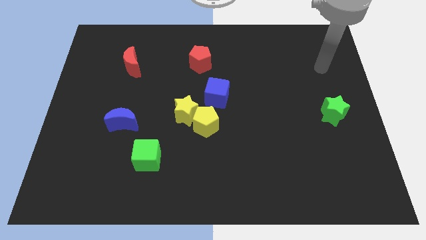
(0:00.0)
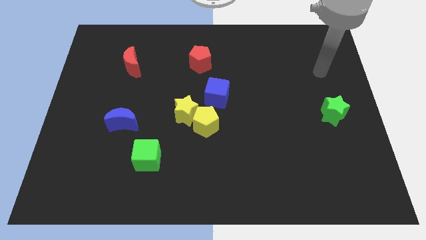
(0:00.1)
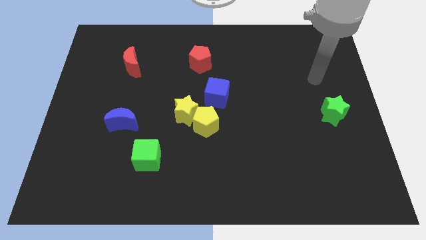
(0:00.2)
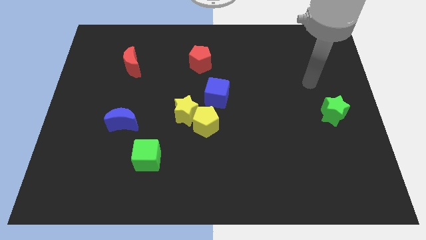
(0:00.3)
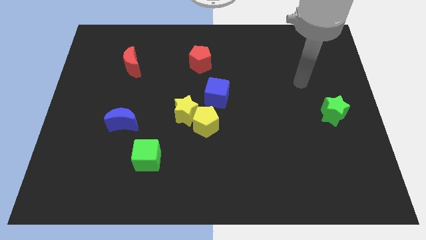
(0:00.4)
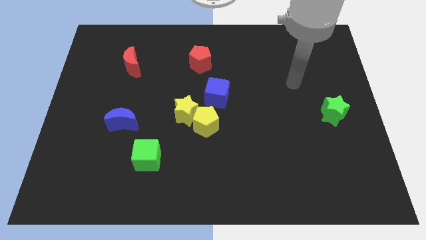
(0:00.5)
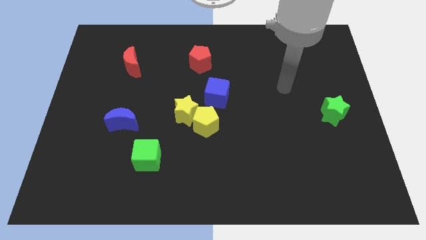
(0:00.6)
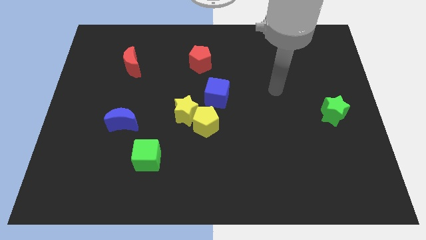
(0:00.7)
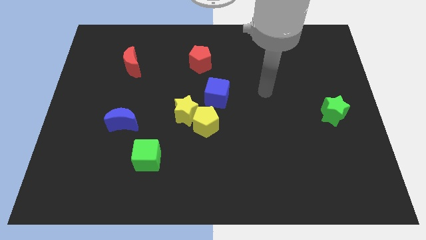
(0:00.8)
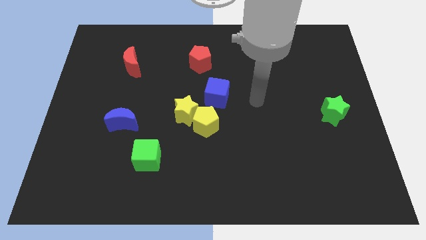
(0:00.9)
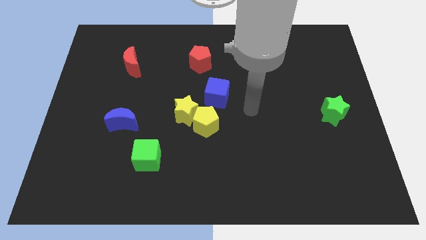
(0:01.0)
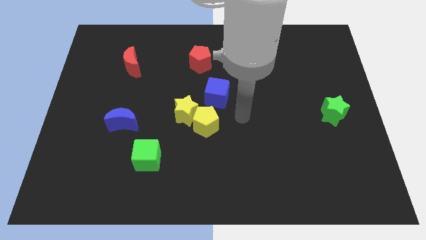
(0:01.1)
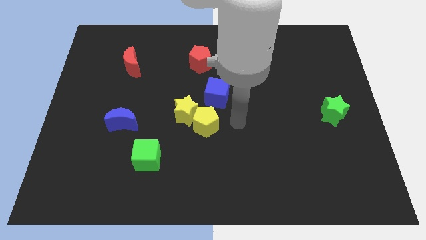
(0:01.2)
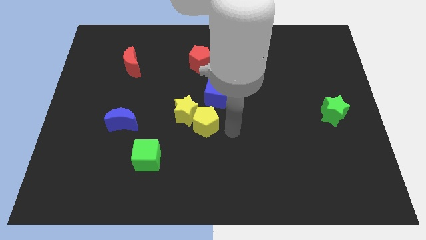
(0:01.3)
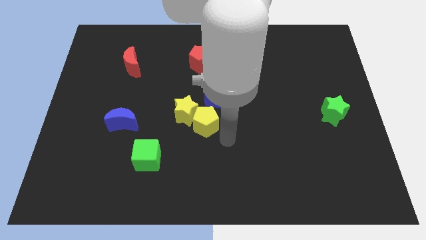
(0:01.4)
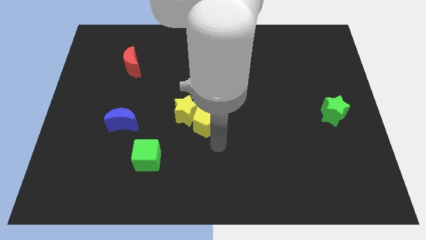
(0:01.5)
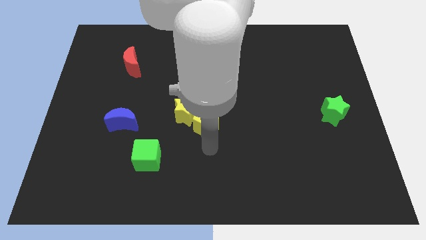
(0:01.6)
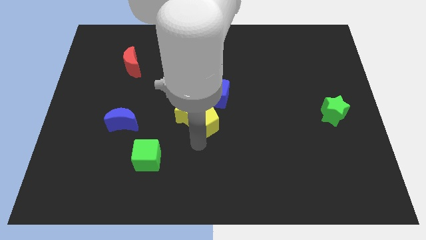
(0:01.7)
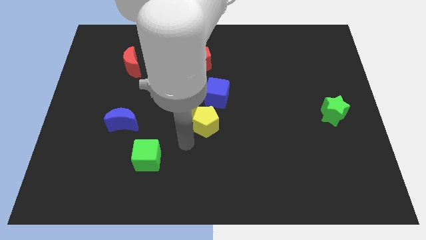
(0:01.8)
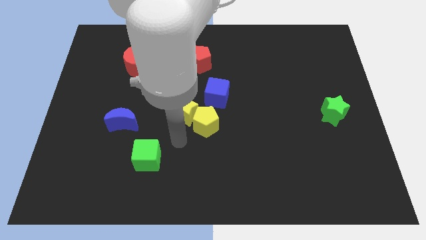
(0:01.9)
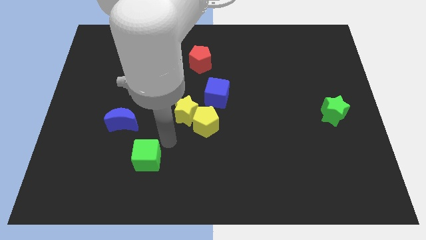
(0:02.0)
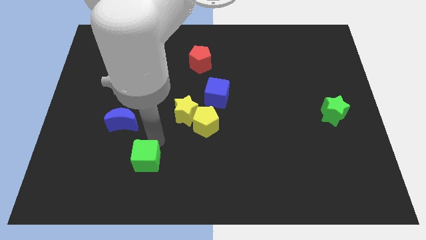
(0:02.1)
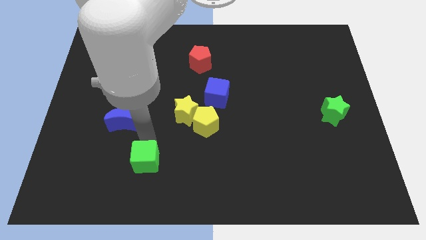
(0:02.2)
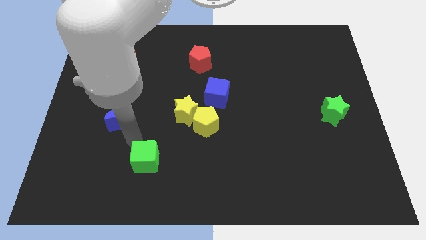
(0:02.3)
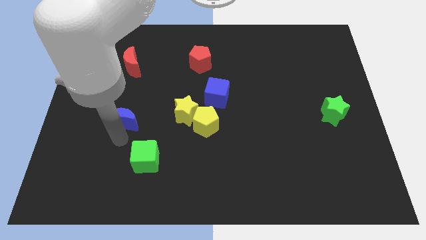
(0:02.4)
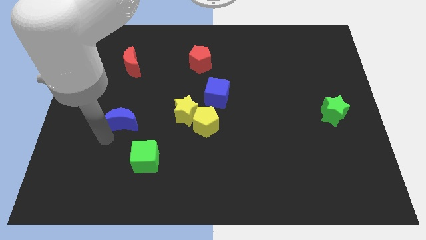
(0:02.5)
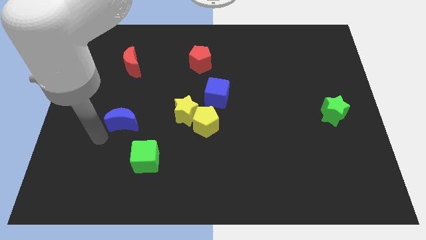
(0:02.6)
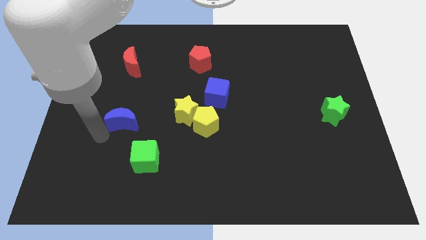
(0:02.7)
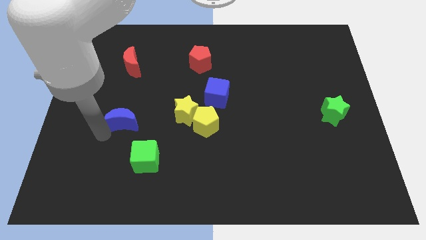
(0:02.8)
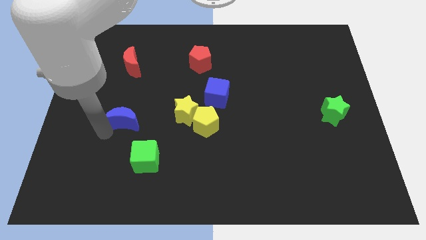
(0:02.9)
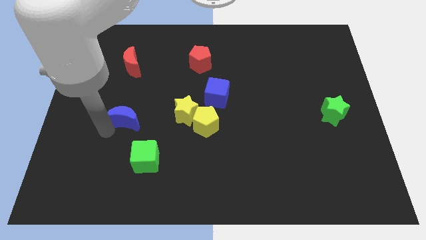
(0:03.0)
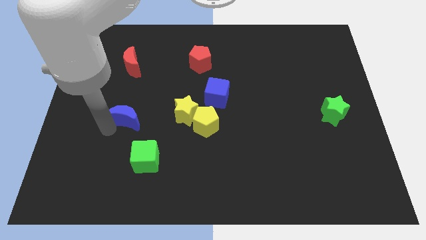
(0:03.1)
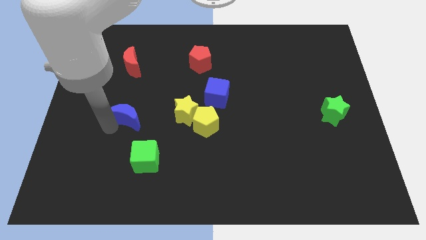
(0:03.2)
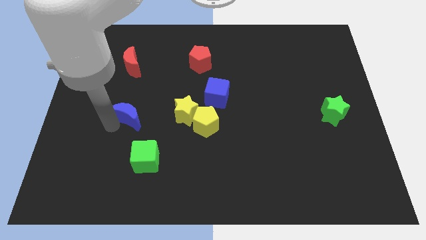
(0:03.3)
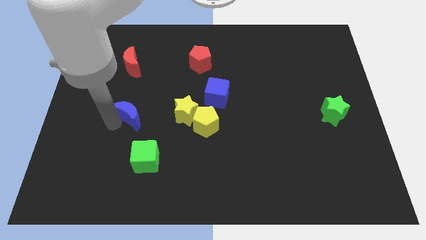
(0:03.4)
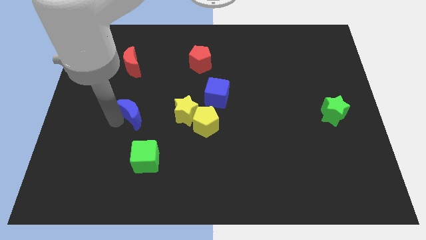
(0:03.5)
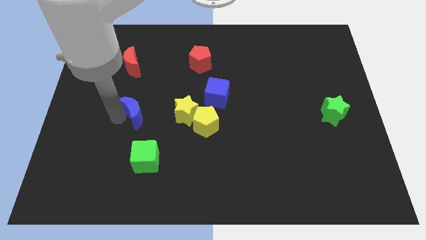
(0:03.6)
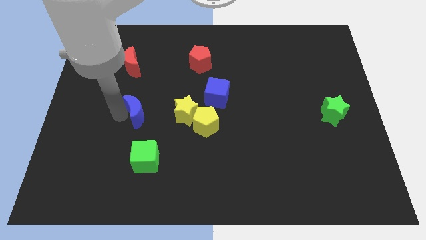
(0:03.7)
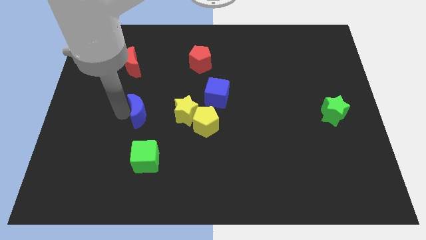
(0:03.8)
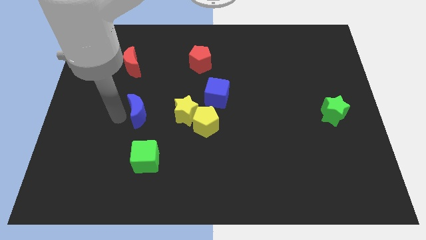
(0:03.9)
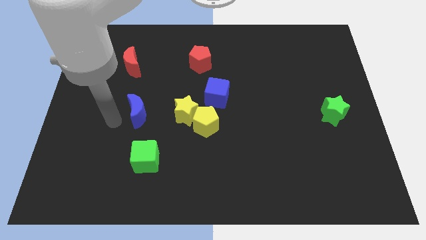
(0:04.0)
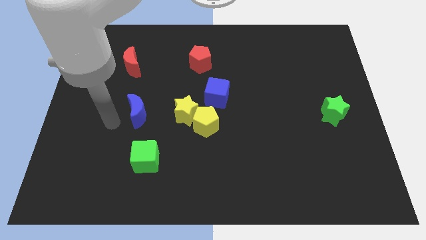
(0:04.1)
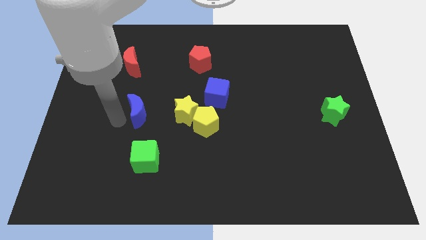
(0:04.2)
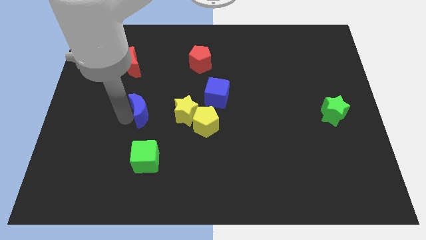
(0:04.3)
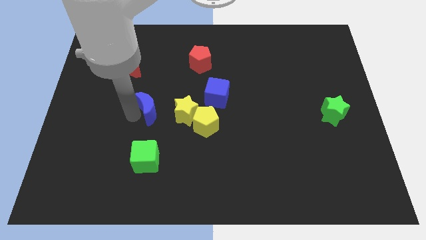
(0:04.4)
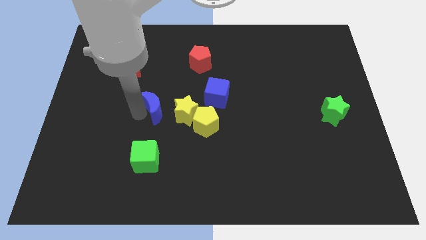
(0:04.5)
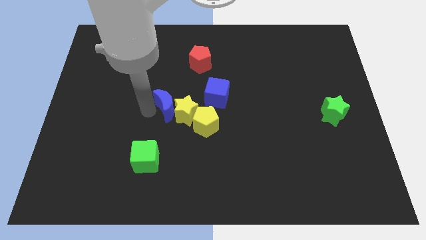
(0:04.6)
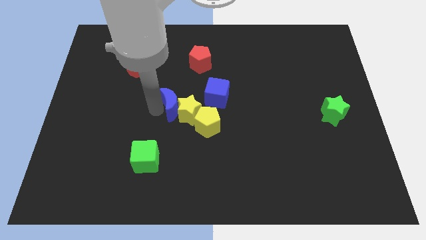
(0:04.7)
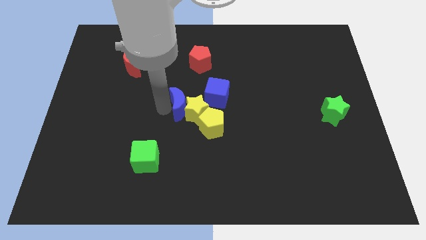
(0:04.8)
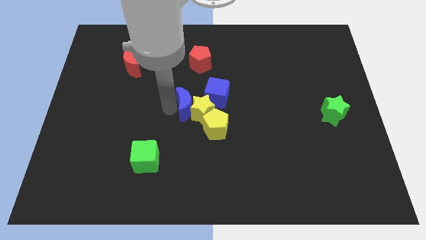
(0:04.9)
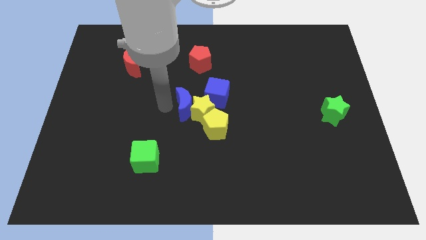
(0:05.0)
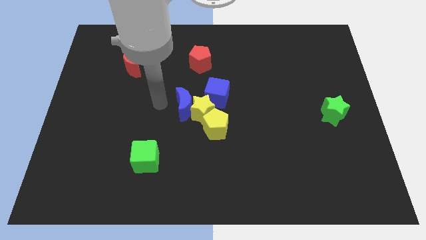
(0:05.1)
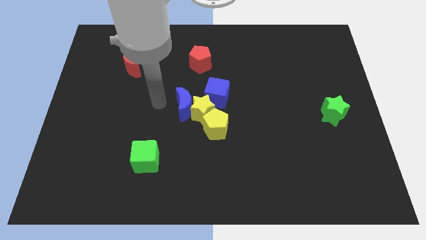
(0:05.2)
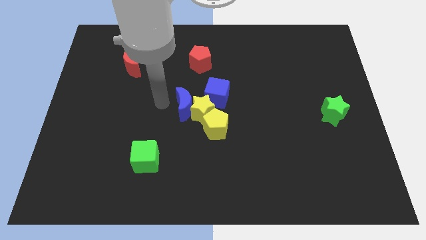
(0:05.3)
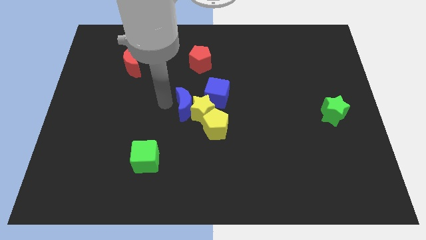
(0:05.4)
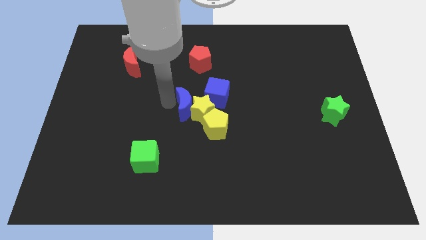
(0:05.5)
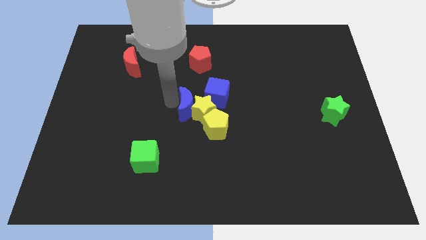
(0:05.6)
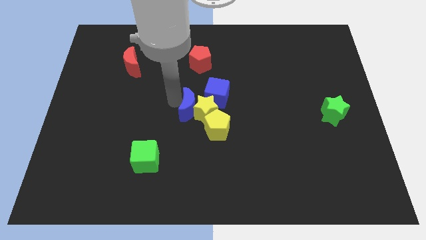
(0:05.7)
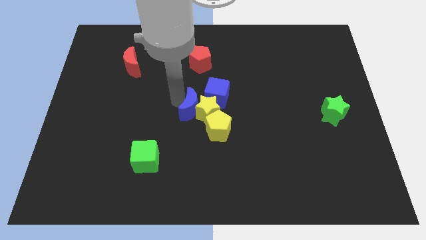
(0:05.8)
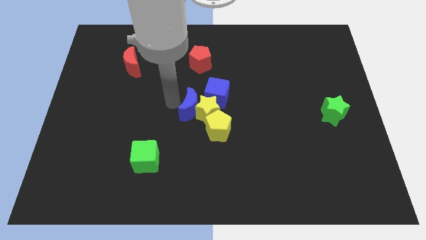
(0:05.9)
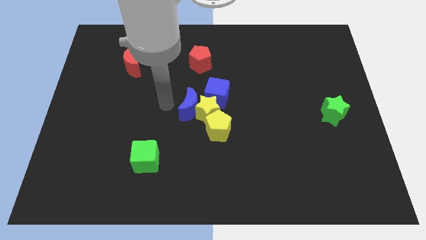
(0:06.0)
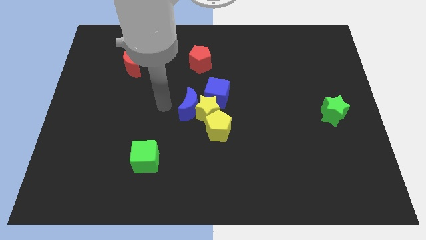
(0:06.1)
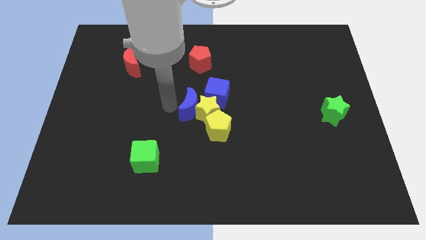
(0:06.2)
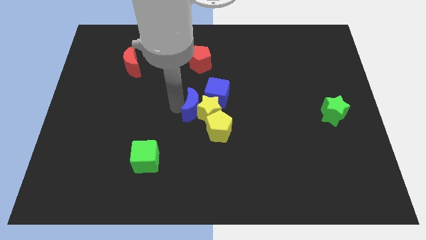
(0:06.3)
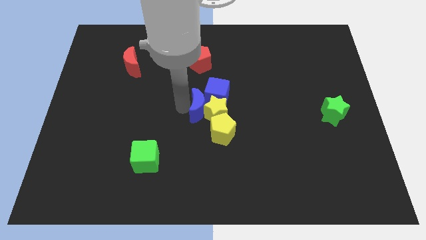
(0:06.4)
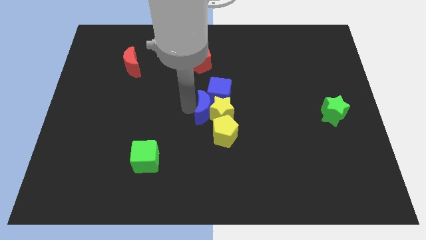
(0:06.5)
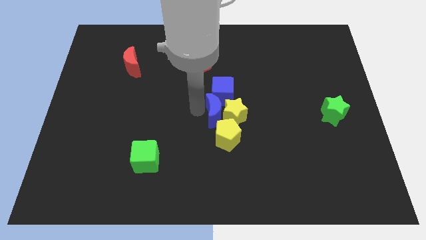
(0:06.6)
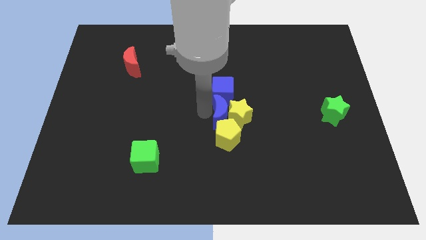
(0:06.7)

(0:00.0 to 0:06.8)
move the blue moon to the bottom right of the blue cube

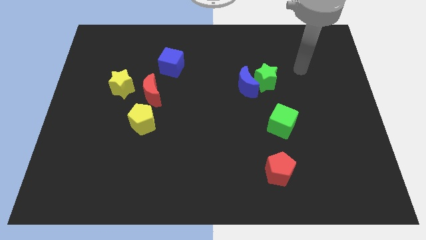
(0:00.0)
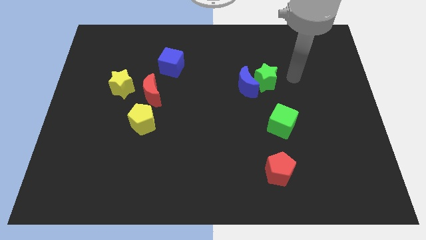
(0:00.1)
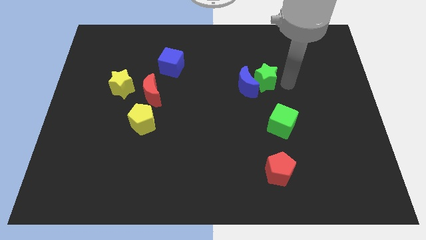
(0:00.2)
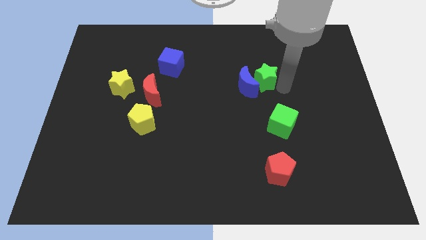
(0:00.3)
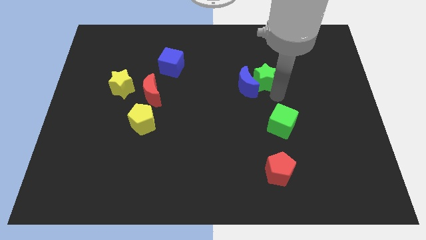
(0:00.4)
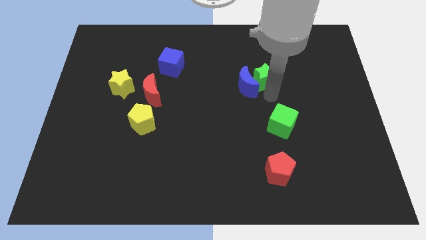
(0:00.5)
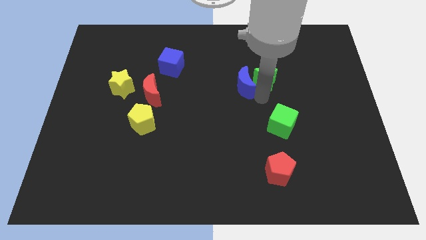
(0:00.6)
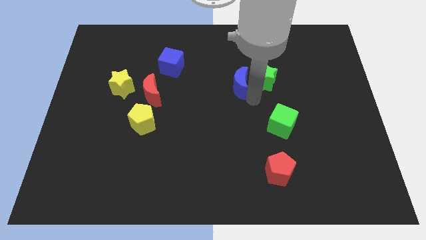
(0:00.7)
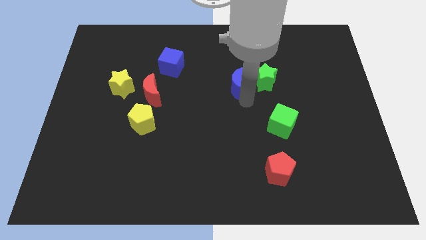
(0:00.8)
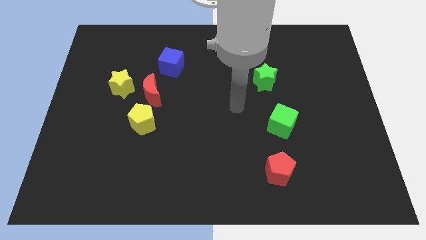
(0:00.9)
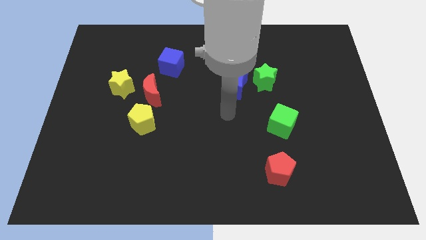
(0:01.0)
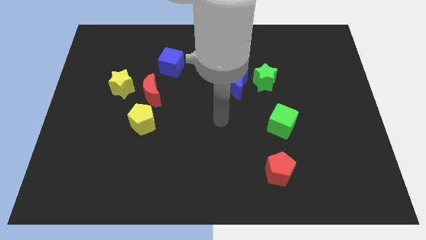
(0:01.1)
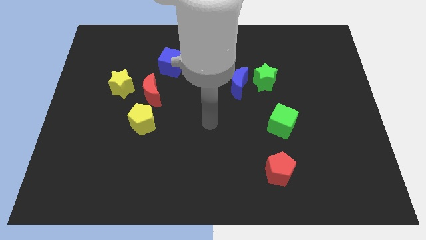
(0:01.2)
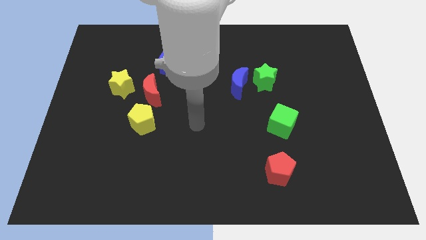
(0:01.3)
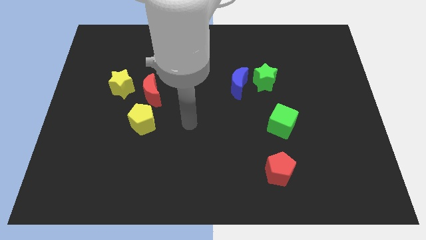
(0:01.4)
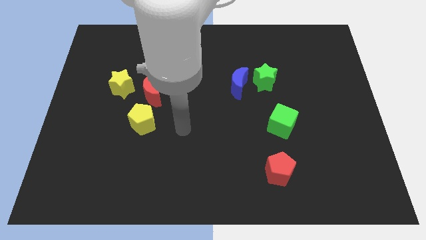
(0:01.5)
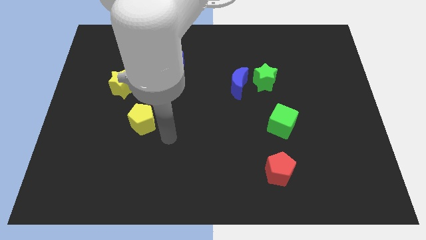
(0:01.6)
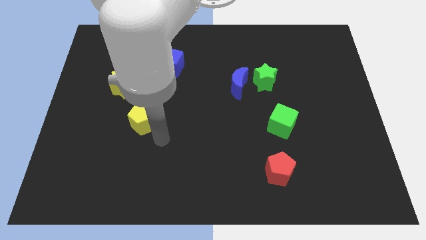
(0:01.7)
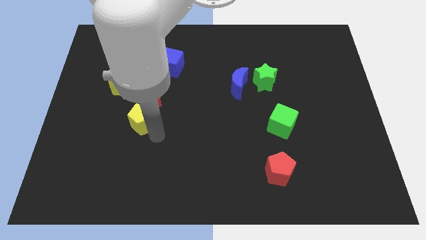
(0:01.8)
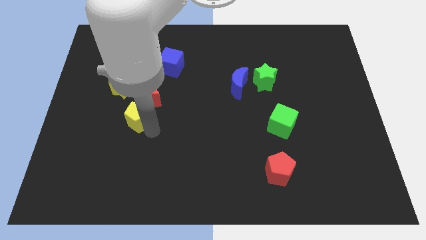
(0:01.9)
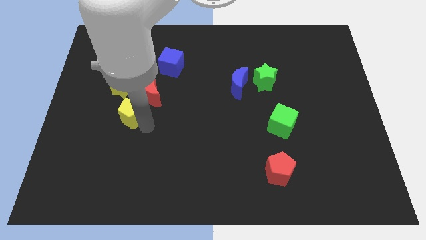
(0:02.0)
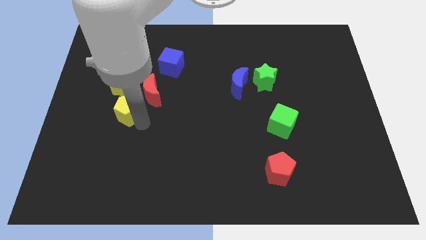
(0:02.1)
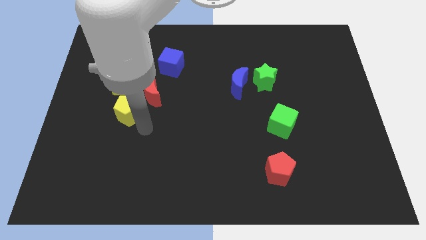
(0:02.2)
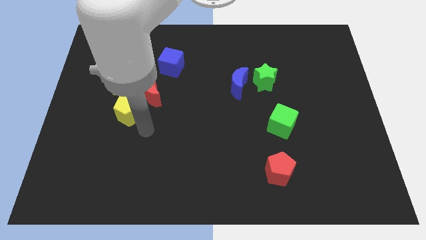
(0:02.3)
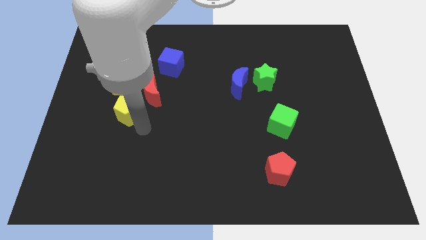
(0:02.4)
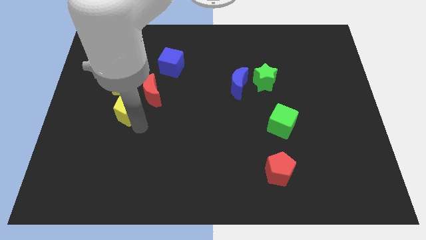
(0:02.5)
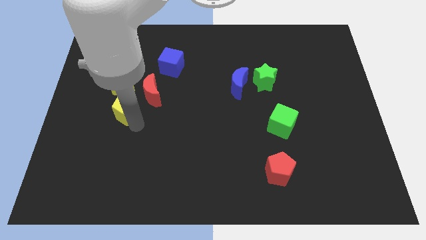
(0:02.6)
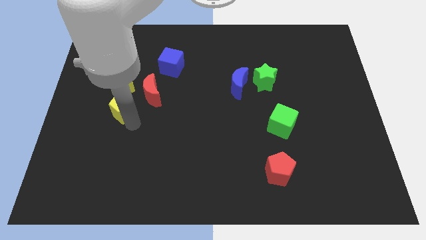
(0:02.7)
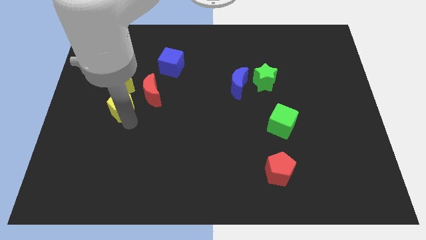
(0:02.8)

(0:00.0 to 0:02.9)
push the yellow pentagon left of the red moon
